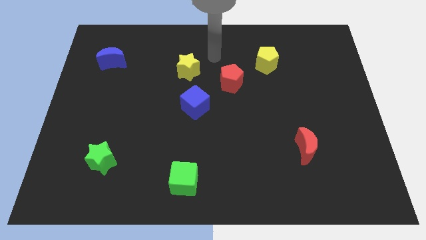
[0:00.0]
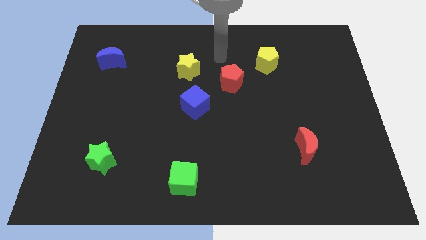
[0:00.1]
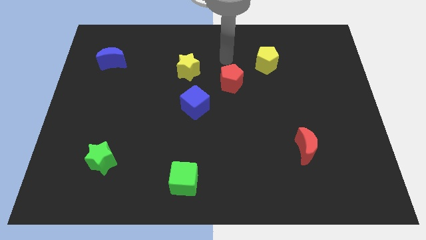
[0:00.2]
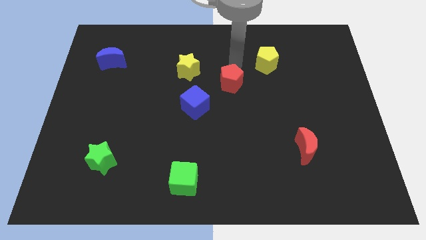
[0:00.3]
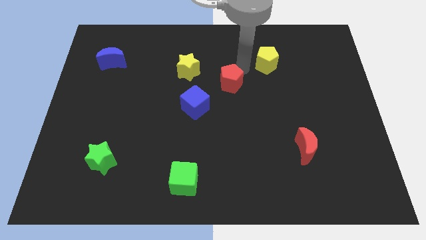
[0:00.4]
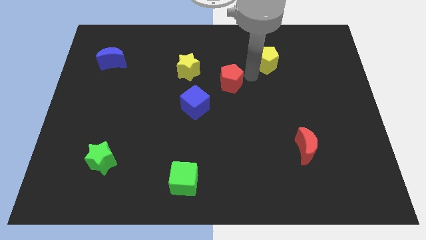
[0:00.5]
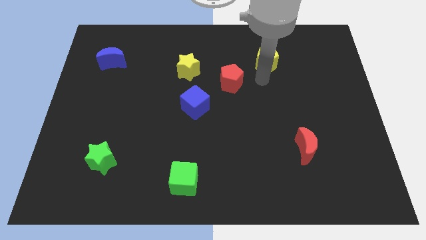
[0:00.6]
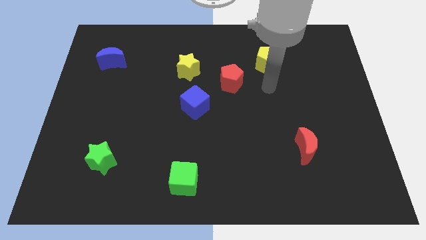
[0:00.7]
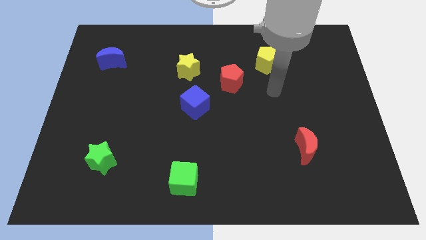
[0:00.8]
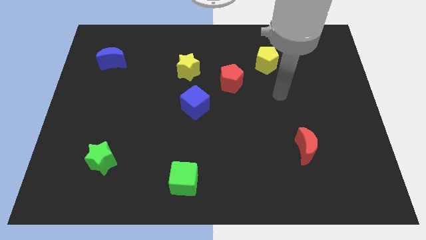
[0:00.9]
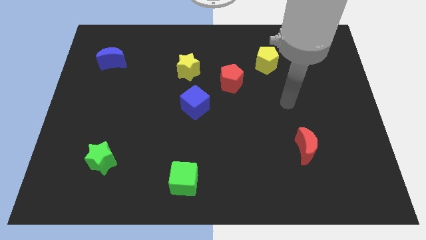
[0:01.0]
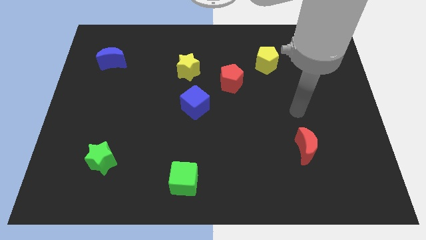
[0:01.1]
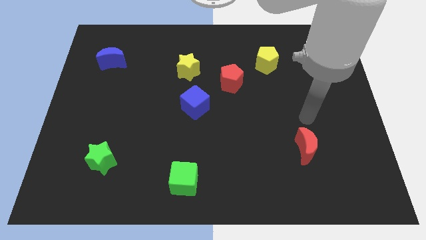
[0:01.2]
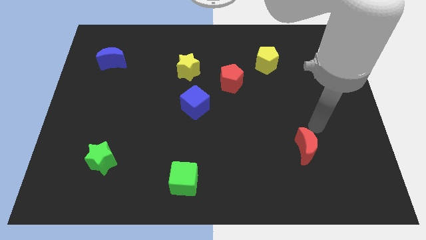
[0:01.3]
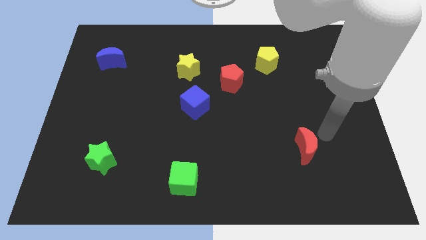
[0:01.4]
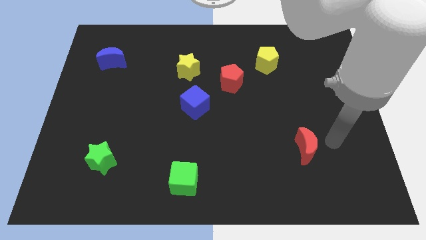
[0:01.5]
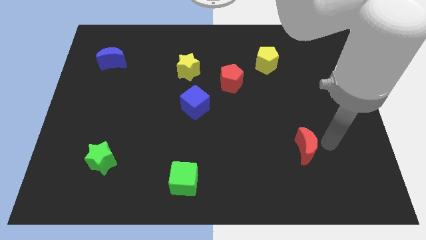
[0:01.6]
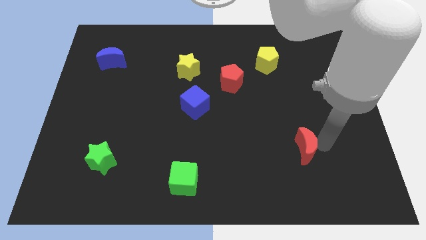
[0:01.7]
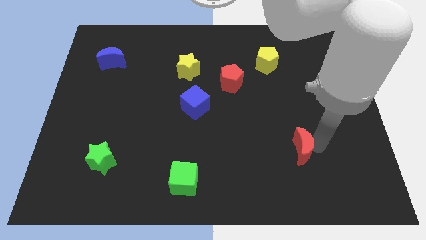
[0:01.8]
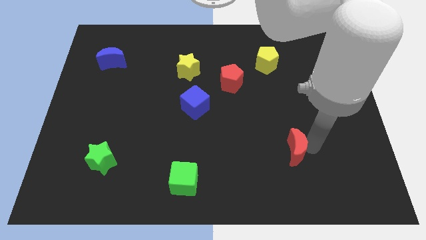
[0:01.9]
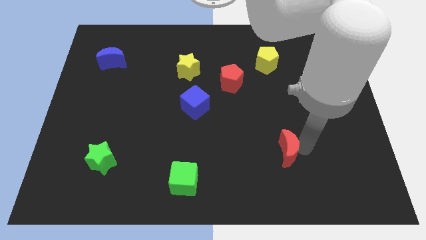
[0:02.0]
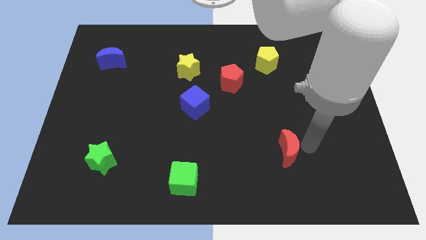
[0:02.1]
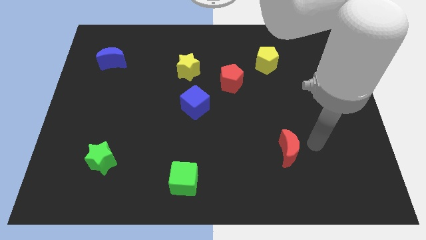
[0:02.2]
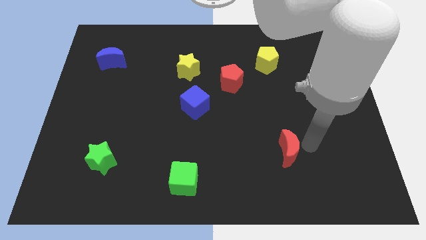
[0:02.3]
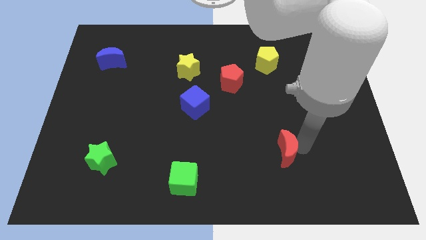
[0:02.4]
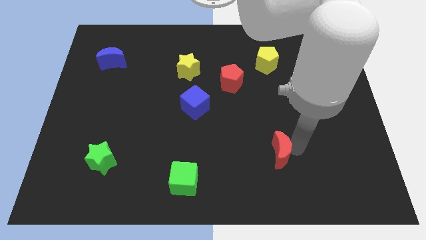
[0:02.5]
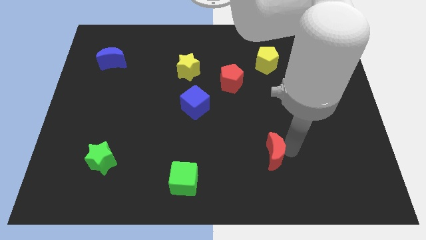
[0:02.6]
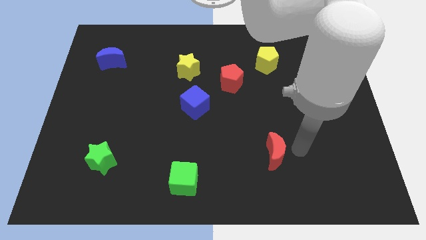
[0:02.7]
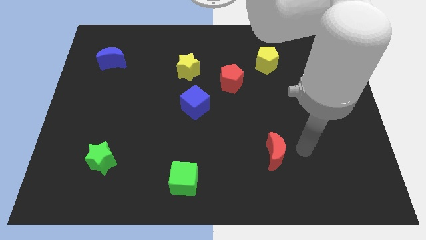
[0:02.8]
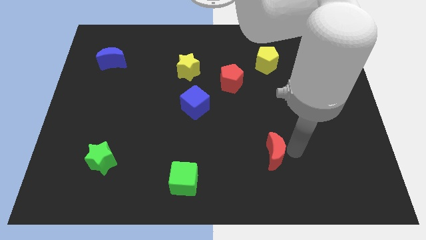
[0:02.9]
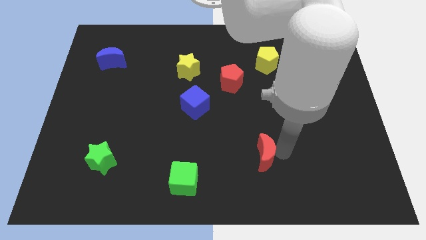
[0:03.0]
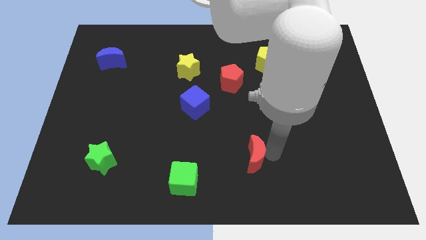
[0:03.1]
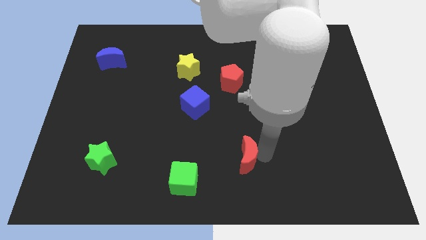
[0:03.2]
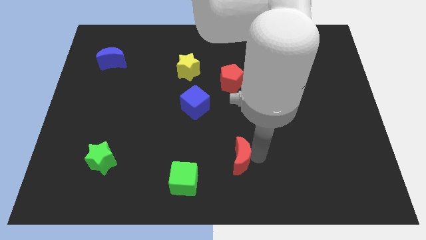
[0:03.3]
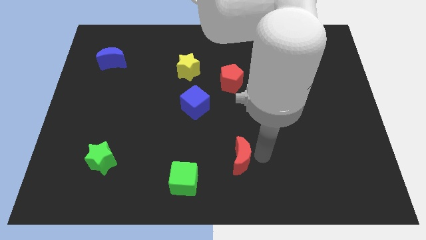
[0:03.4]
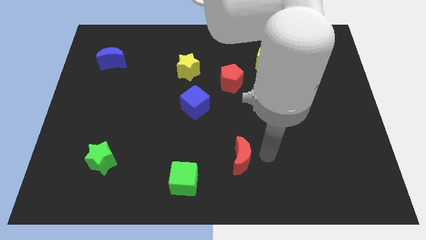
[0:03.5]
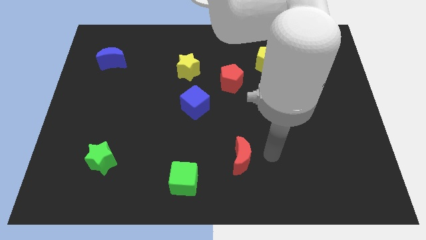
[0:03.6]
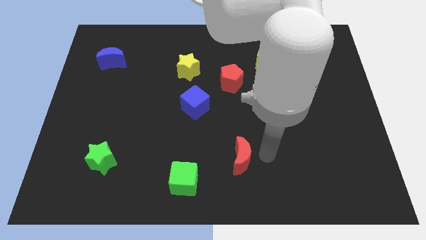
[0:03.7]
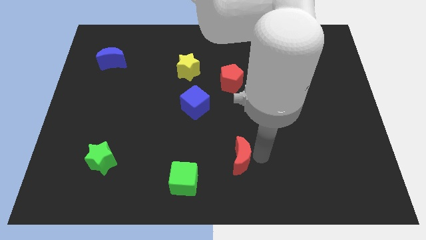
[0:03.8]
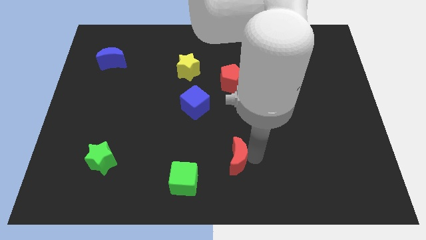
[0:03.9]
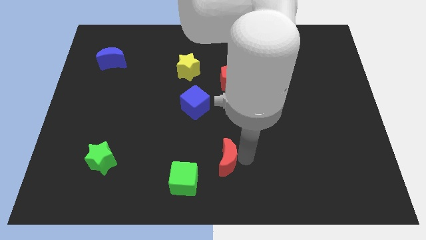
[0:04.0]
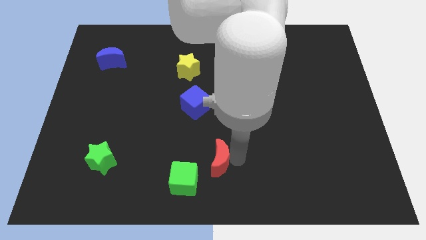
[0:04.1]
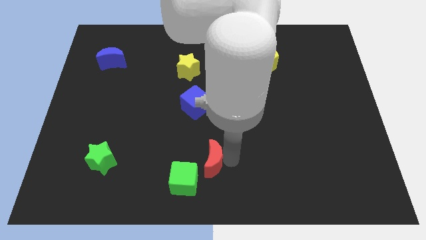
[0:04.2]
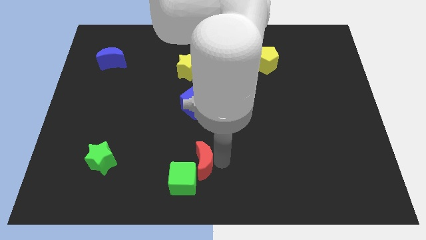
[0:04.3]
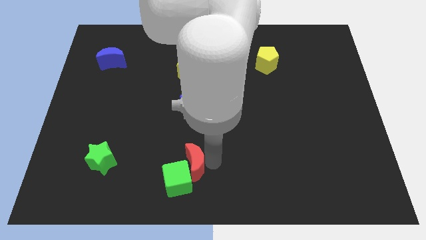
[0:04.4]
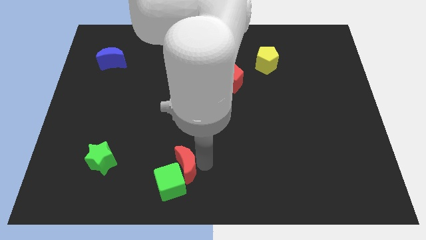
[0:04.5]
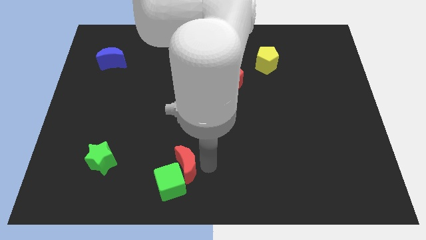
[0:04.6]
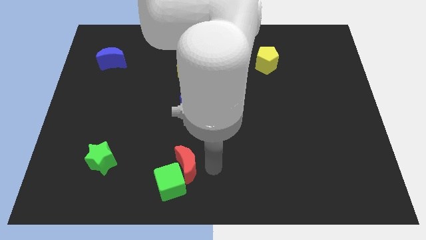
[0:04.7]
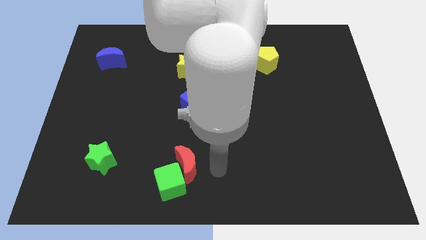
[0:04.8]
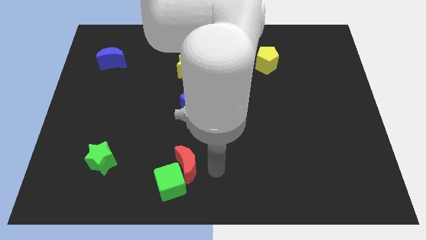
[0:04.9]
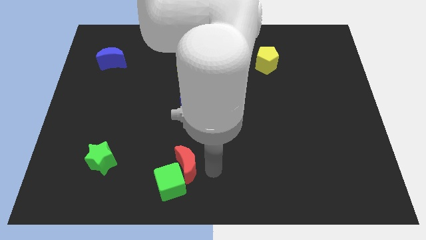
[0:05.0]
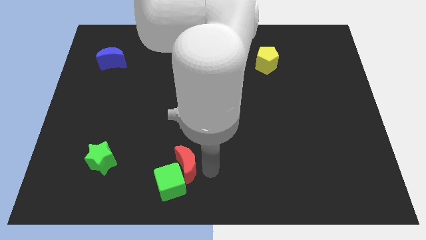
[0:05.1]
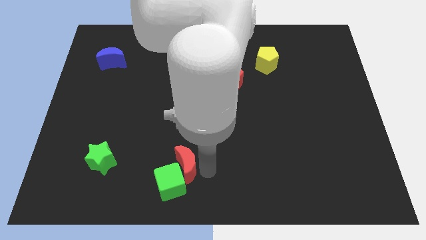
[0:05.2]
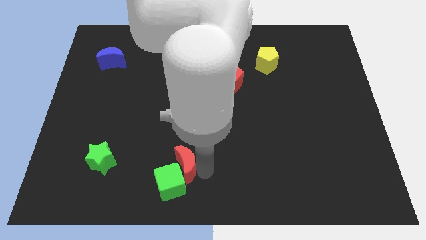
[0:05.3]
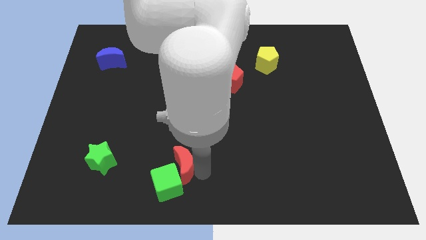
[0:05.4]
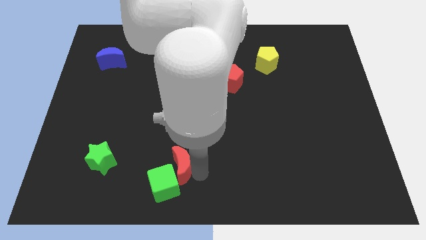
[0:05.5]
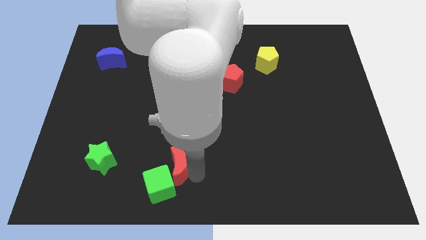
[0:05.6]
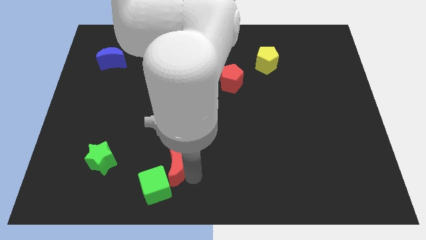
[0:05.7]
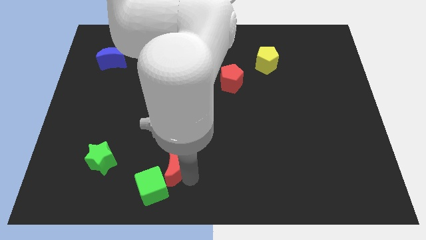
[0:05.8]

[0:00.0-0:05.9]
slide the red moon right of the green star

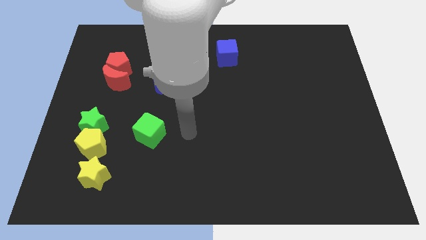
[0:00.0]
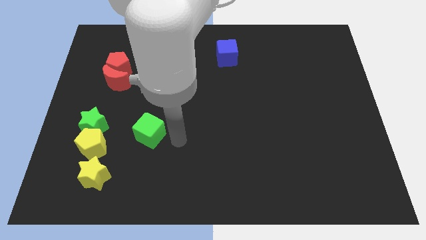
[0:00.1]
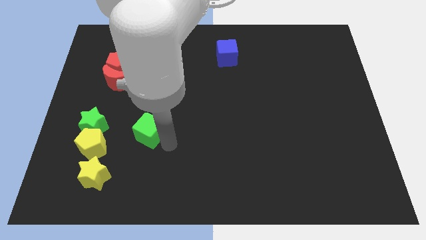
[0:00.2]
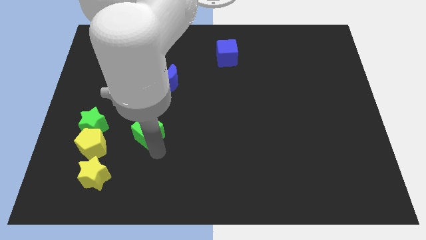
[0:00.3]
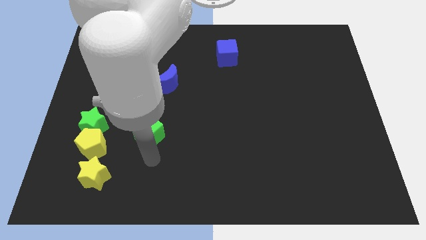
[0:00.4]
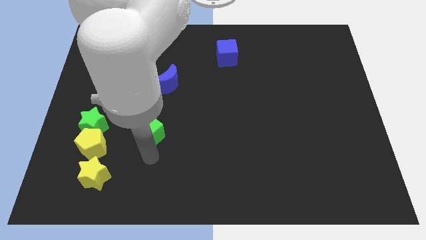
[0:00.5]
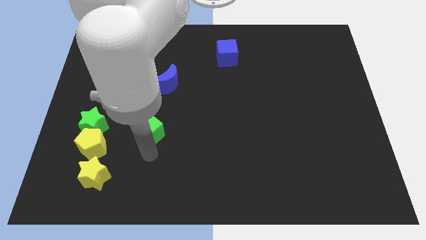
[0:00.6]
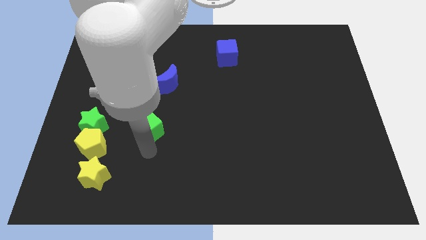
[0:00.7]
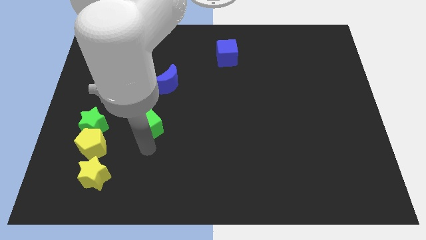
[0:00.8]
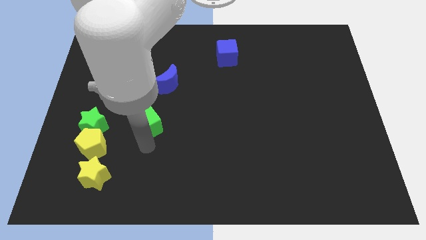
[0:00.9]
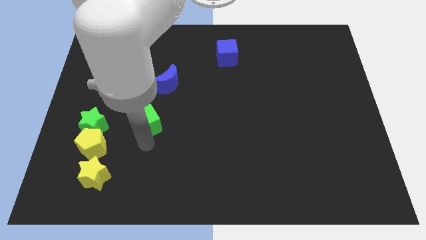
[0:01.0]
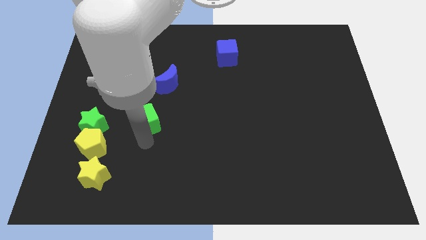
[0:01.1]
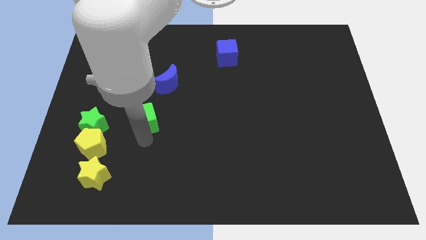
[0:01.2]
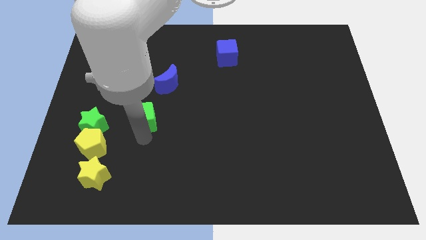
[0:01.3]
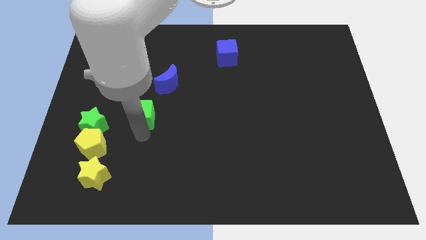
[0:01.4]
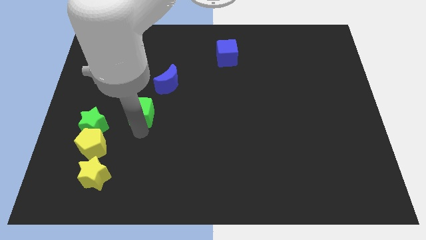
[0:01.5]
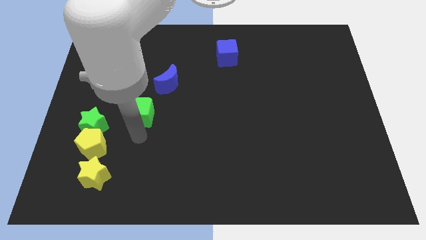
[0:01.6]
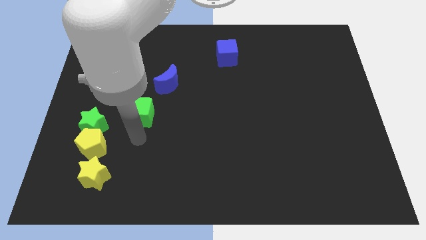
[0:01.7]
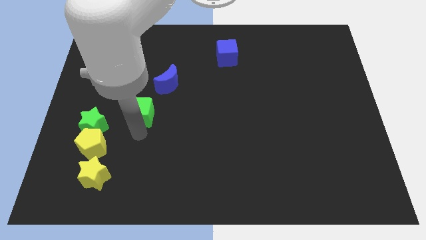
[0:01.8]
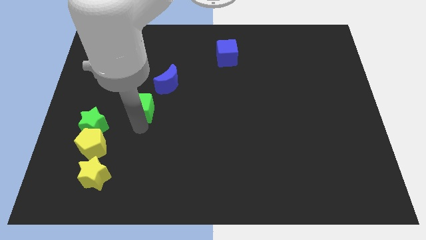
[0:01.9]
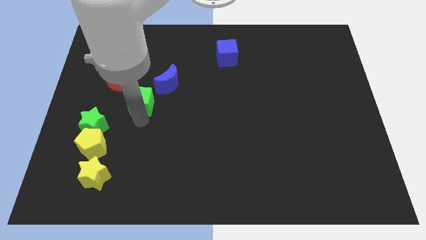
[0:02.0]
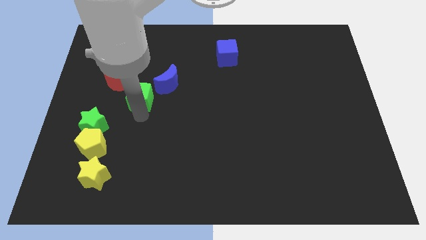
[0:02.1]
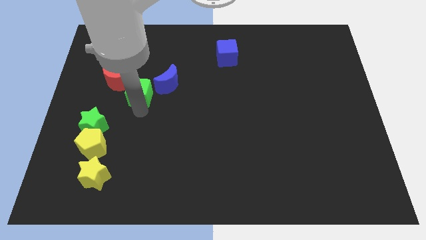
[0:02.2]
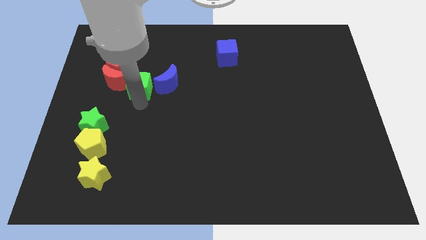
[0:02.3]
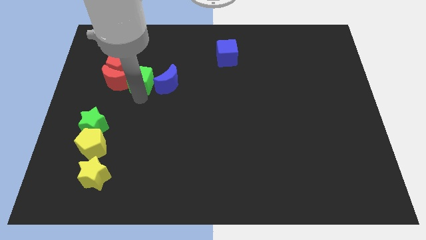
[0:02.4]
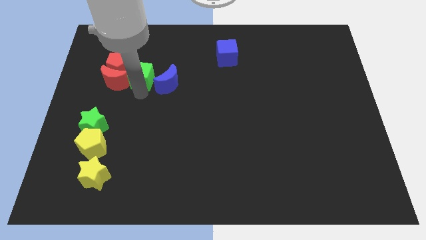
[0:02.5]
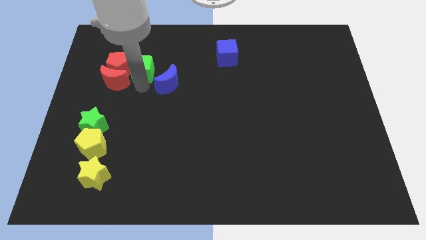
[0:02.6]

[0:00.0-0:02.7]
move the green cube diagonally up and to the right of the red pentagon
